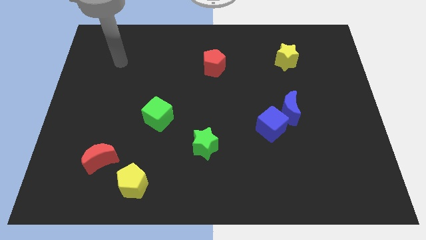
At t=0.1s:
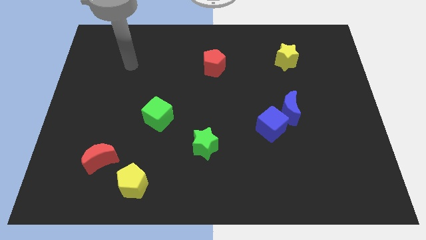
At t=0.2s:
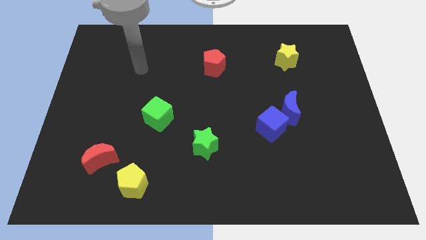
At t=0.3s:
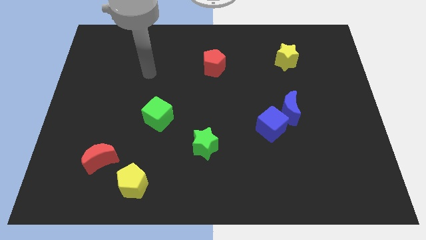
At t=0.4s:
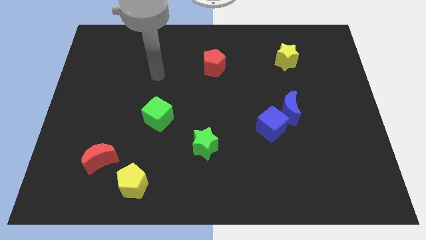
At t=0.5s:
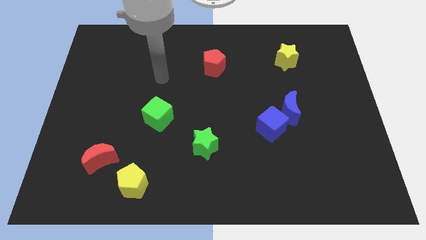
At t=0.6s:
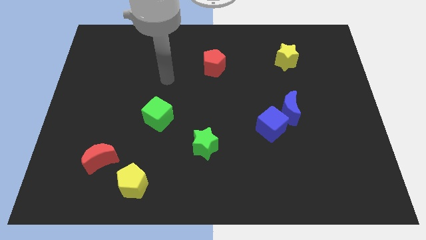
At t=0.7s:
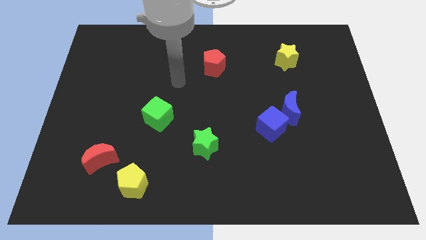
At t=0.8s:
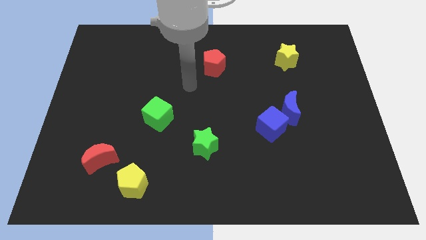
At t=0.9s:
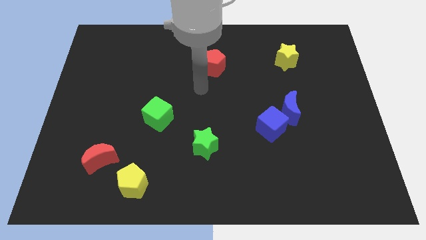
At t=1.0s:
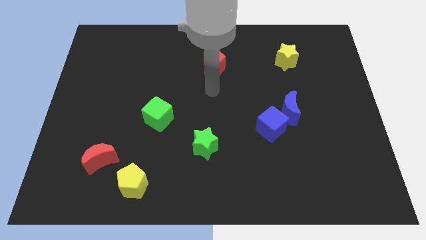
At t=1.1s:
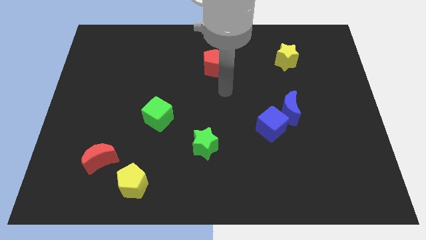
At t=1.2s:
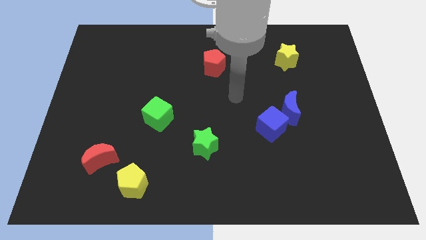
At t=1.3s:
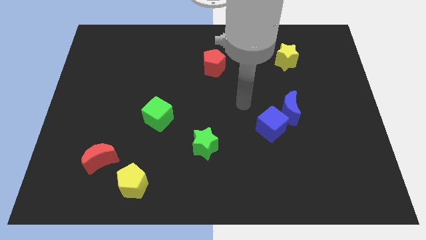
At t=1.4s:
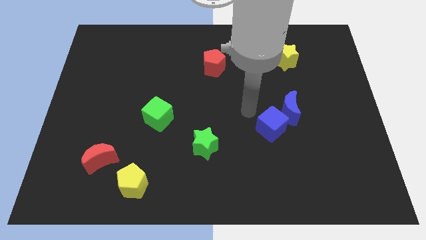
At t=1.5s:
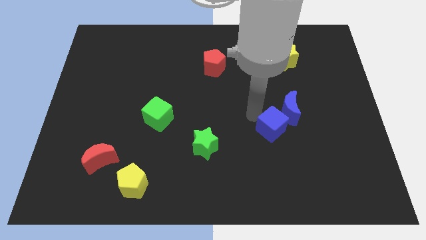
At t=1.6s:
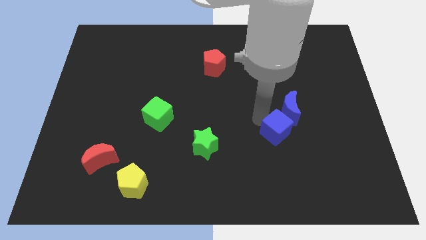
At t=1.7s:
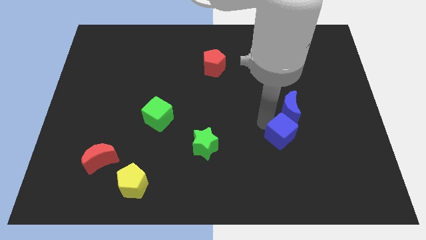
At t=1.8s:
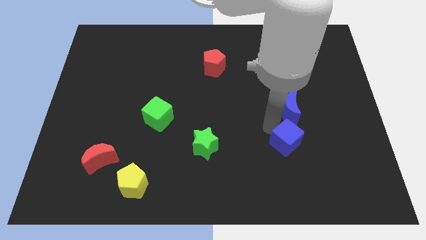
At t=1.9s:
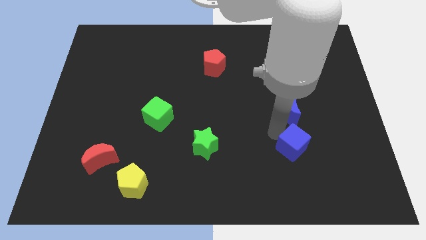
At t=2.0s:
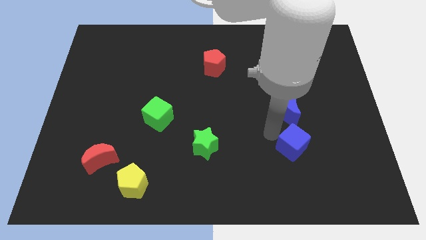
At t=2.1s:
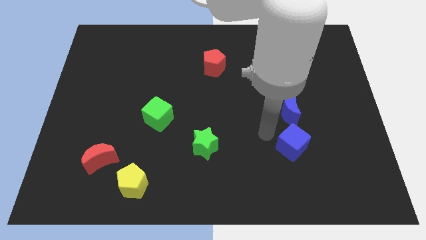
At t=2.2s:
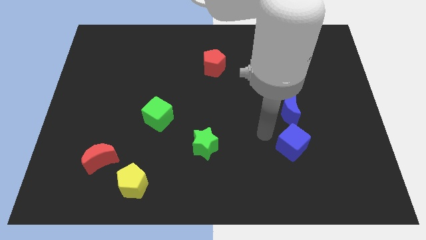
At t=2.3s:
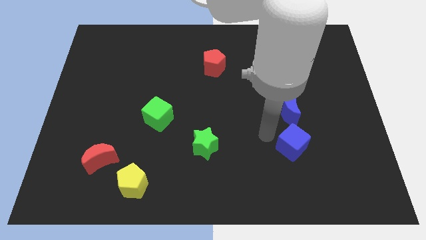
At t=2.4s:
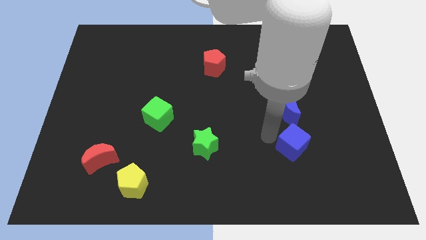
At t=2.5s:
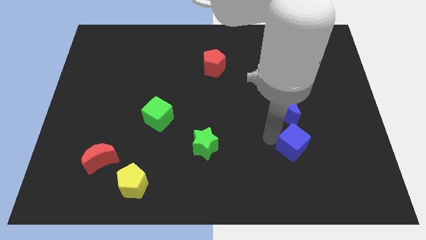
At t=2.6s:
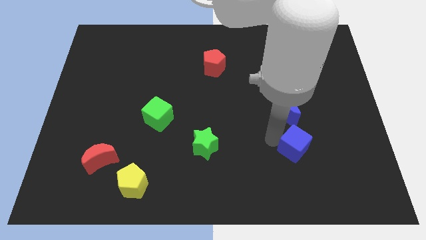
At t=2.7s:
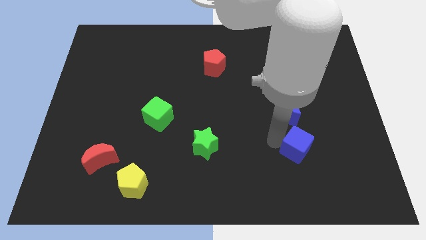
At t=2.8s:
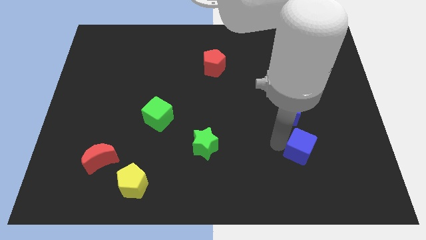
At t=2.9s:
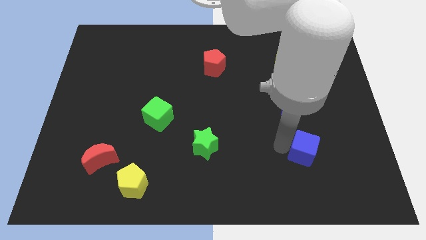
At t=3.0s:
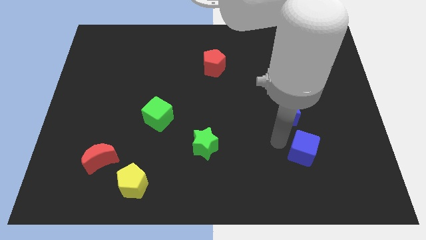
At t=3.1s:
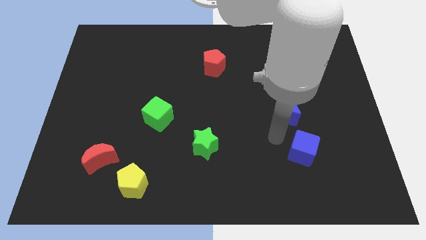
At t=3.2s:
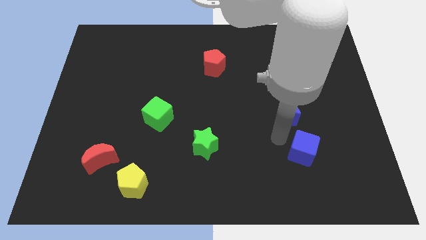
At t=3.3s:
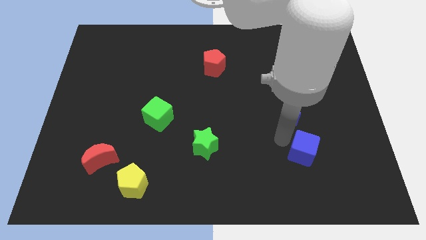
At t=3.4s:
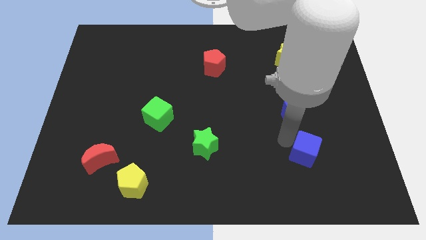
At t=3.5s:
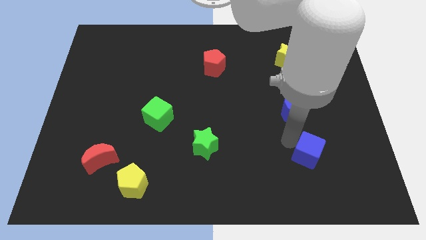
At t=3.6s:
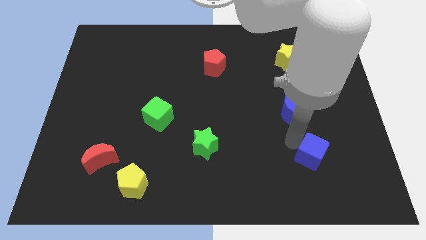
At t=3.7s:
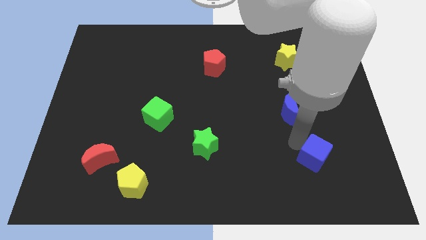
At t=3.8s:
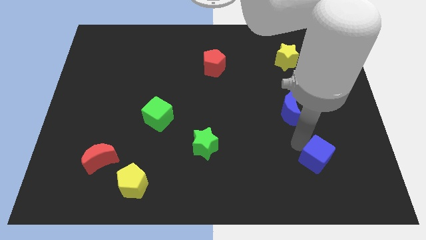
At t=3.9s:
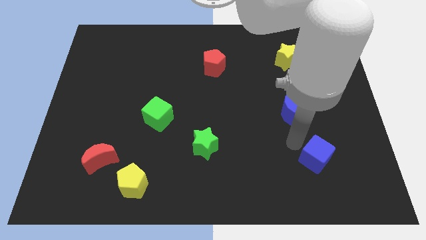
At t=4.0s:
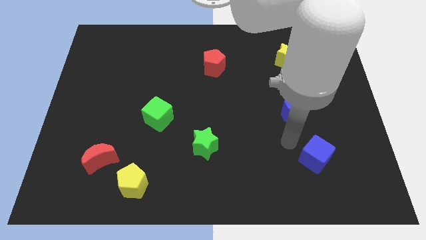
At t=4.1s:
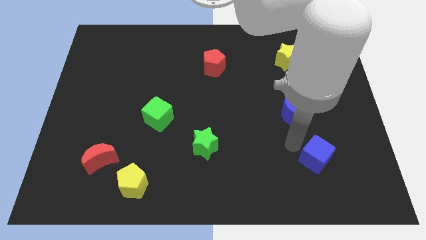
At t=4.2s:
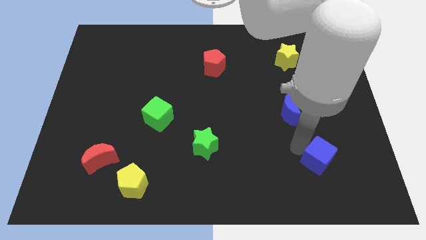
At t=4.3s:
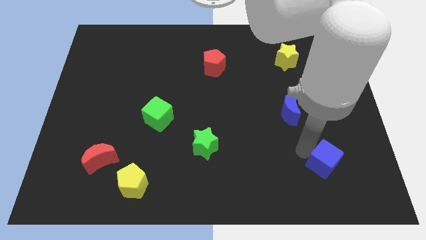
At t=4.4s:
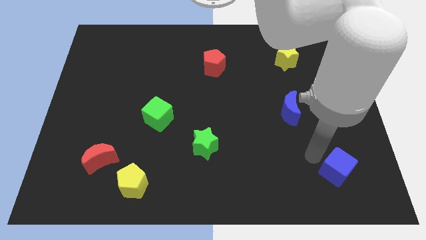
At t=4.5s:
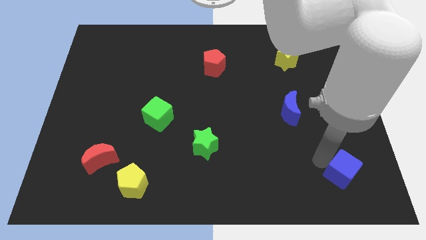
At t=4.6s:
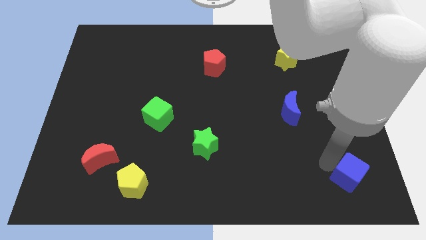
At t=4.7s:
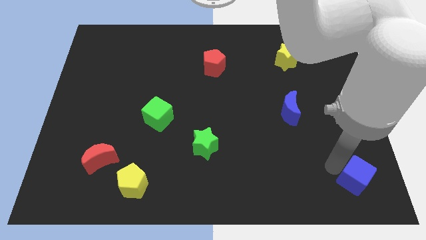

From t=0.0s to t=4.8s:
push the blue cube to the lower right corner

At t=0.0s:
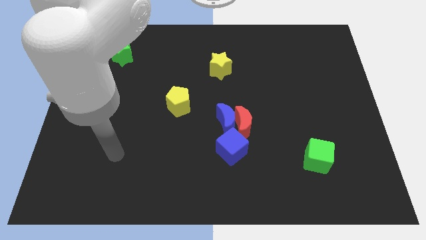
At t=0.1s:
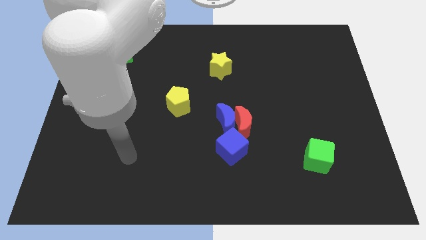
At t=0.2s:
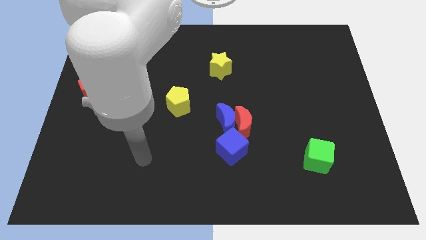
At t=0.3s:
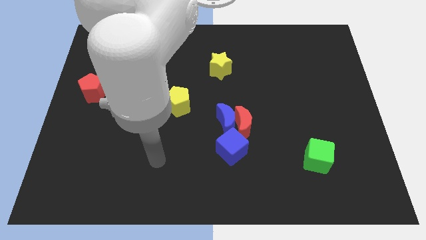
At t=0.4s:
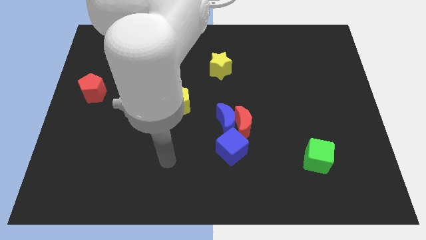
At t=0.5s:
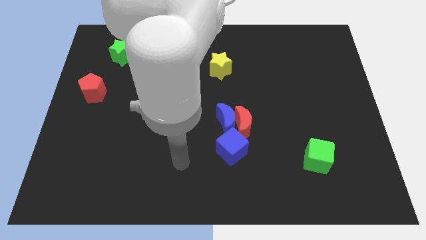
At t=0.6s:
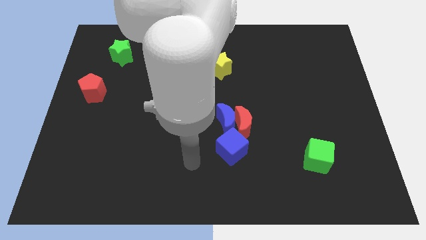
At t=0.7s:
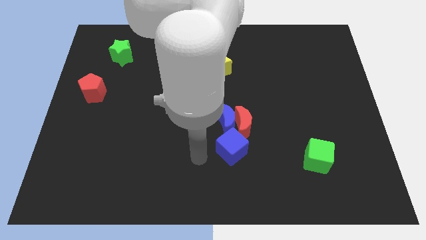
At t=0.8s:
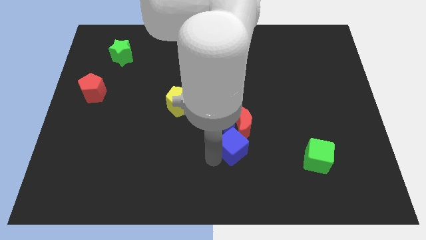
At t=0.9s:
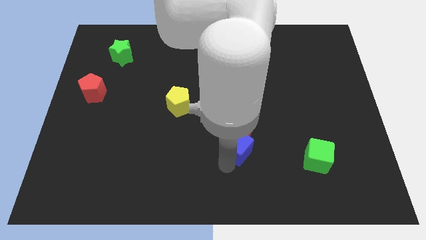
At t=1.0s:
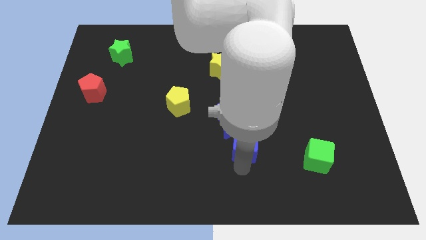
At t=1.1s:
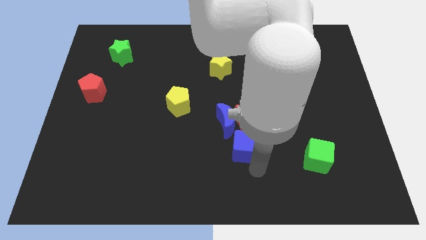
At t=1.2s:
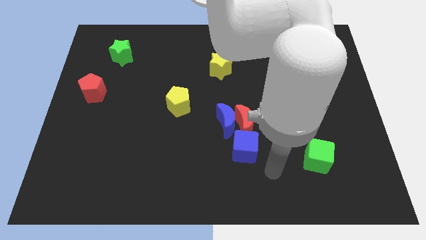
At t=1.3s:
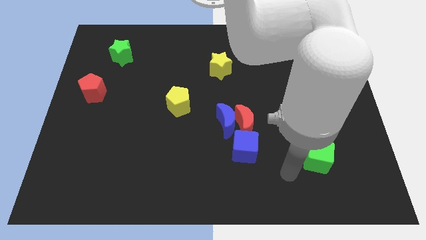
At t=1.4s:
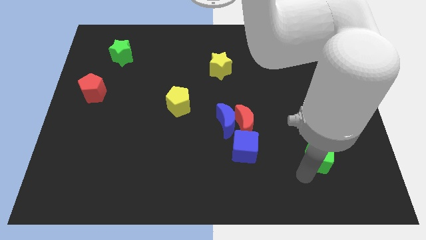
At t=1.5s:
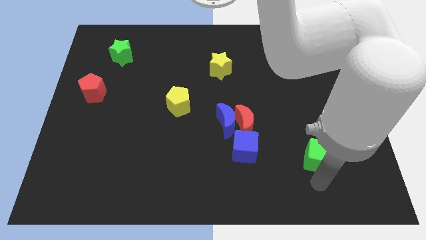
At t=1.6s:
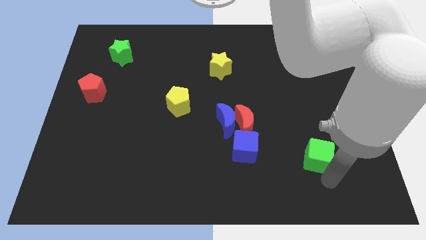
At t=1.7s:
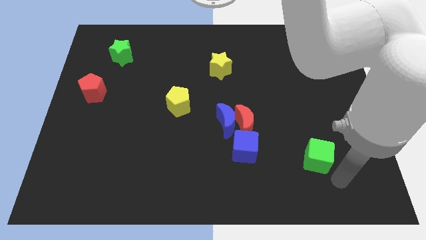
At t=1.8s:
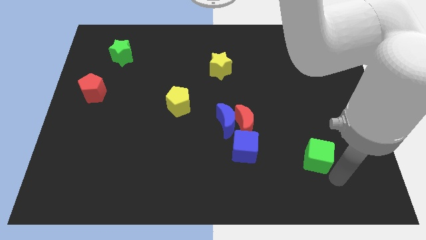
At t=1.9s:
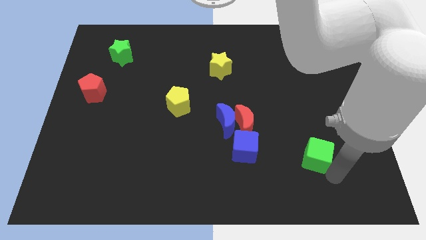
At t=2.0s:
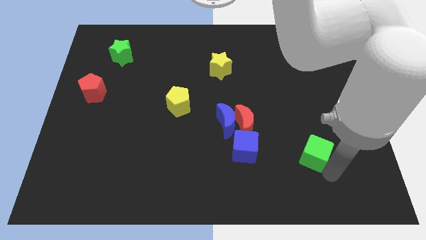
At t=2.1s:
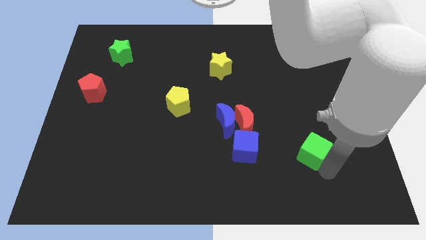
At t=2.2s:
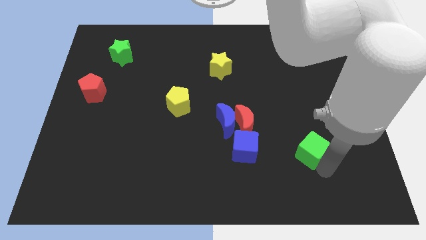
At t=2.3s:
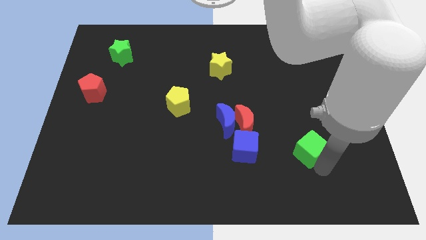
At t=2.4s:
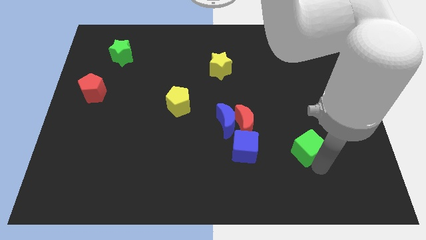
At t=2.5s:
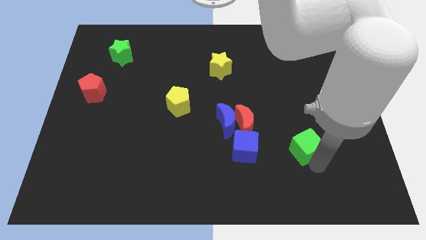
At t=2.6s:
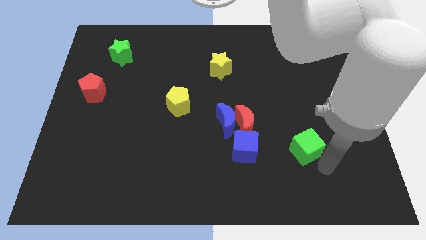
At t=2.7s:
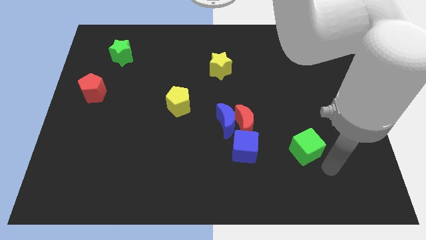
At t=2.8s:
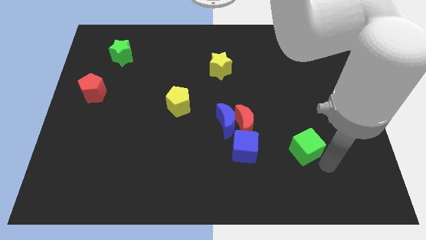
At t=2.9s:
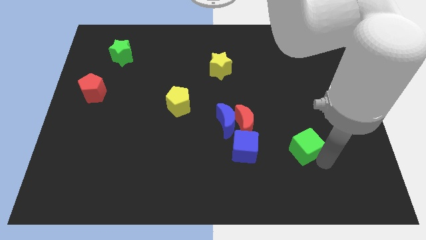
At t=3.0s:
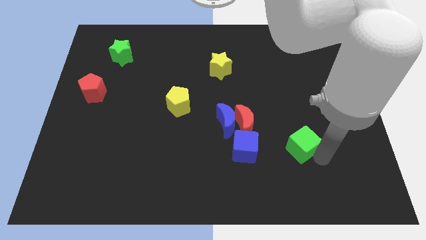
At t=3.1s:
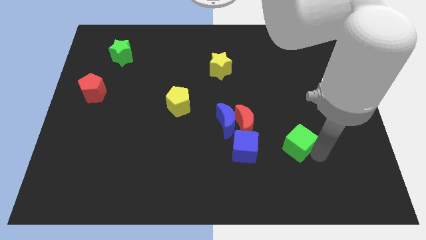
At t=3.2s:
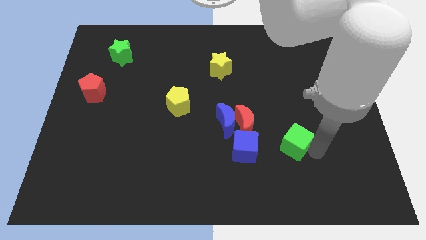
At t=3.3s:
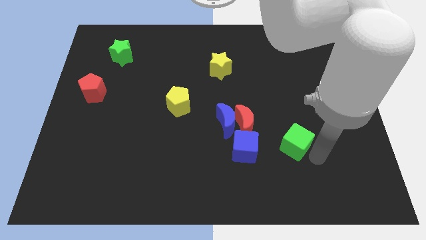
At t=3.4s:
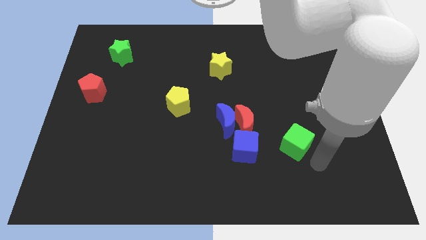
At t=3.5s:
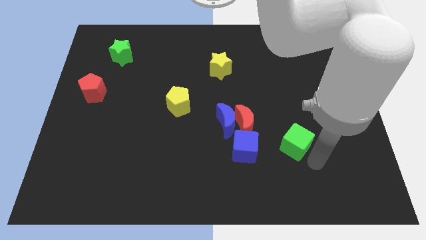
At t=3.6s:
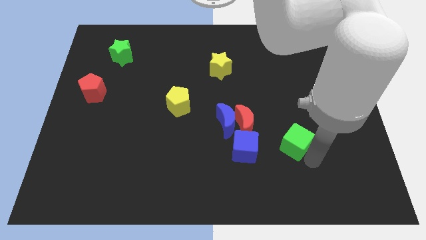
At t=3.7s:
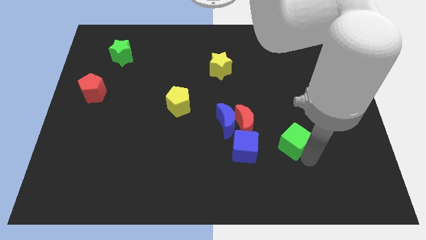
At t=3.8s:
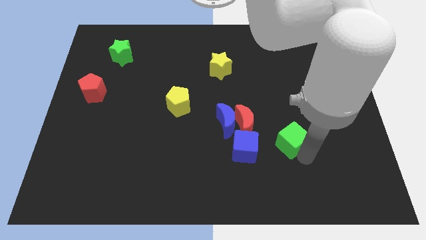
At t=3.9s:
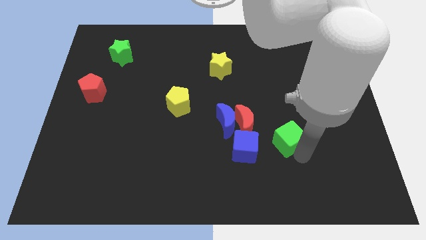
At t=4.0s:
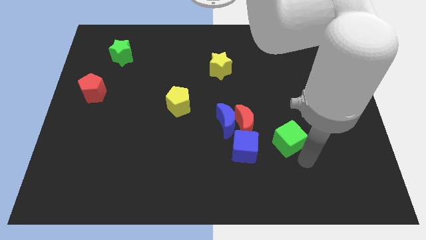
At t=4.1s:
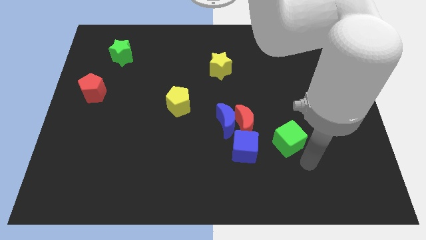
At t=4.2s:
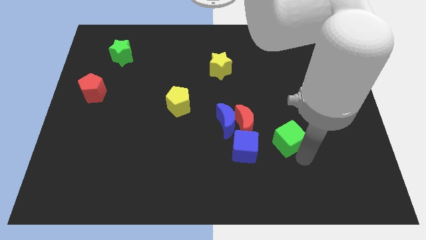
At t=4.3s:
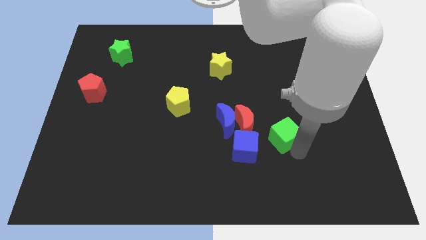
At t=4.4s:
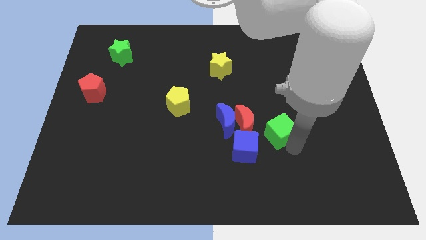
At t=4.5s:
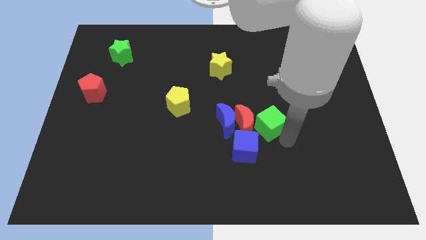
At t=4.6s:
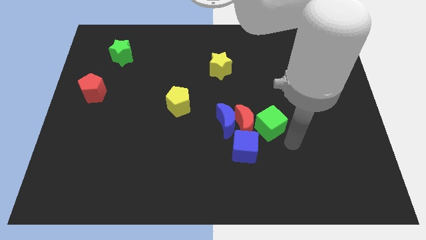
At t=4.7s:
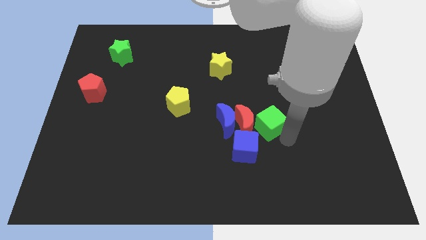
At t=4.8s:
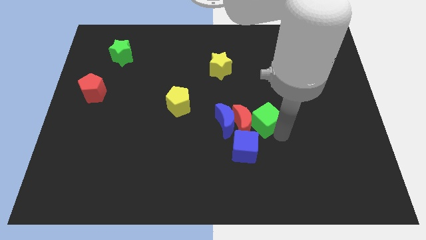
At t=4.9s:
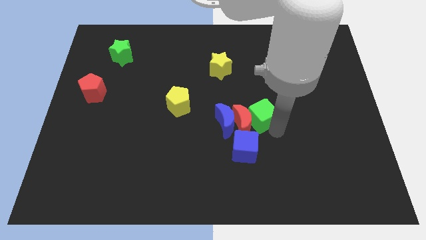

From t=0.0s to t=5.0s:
move the green cube to the center of the board
